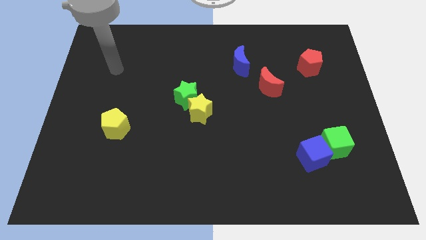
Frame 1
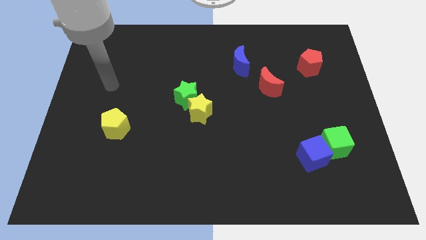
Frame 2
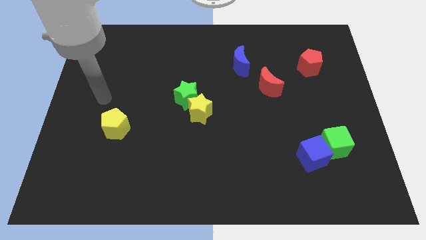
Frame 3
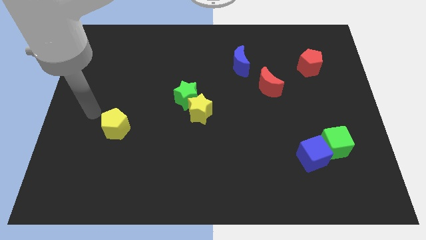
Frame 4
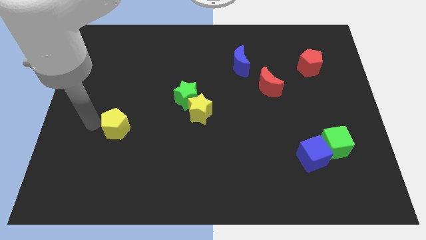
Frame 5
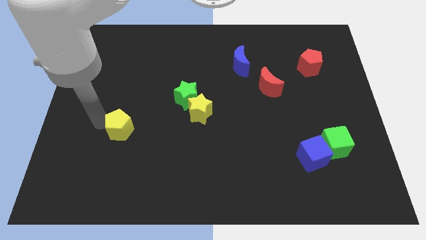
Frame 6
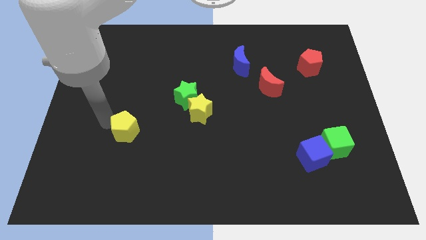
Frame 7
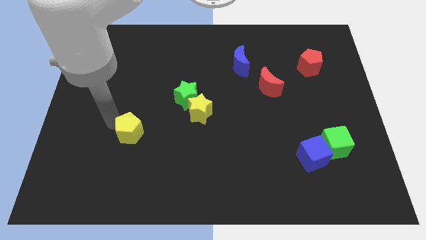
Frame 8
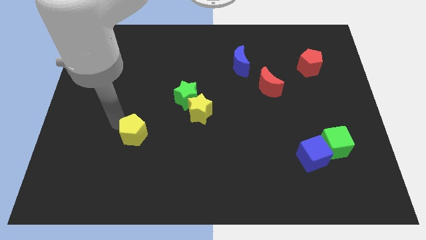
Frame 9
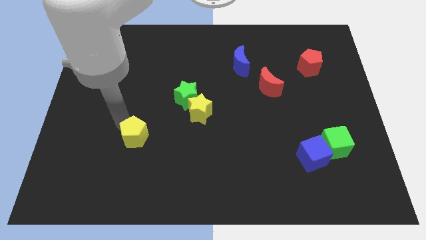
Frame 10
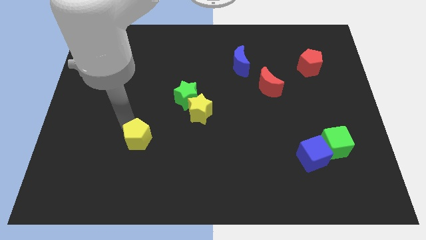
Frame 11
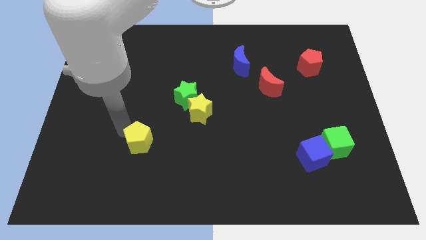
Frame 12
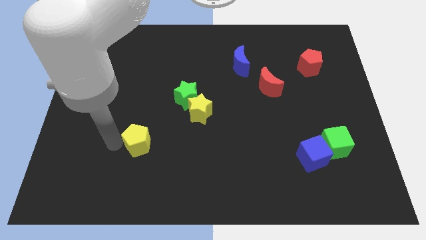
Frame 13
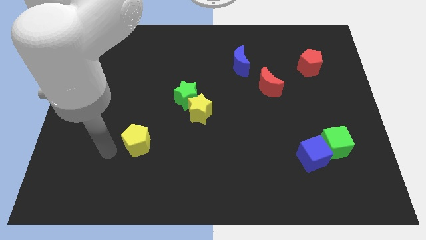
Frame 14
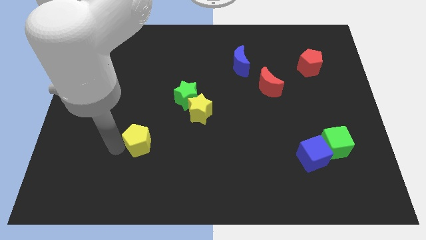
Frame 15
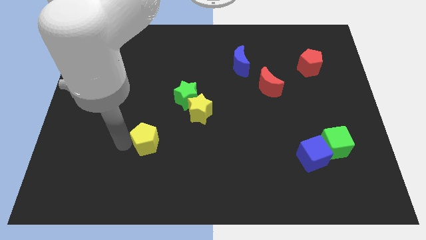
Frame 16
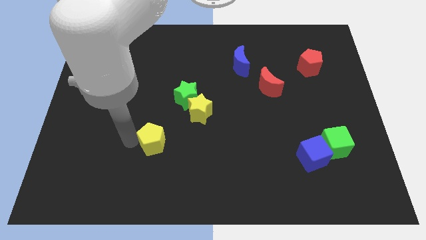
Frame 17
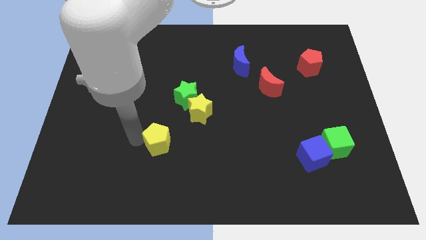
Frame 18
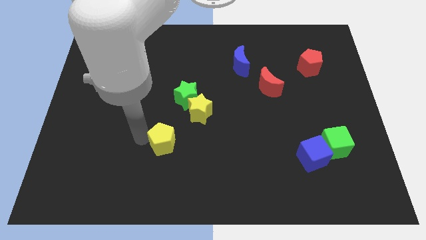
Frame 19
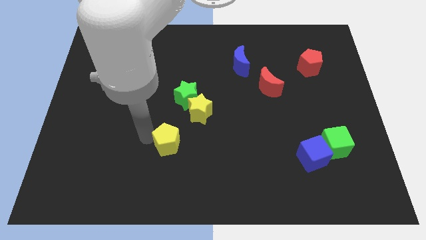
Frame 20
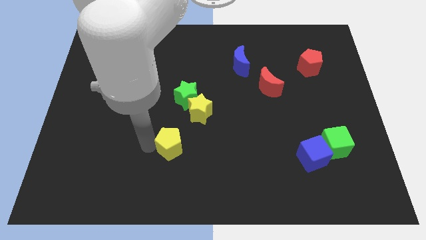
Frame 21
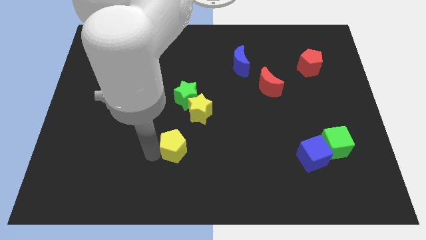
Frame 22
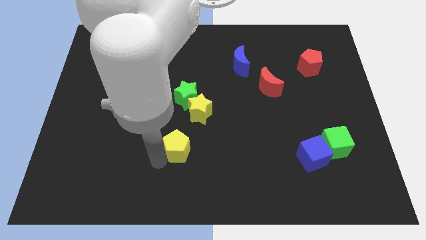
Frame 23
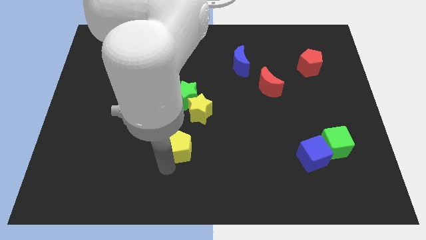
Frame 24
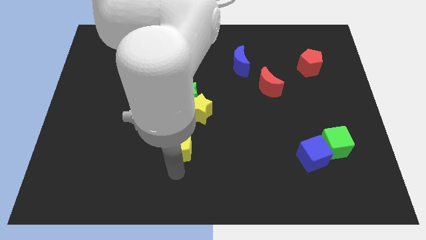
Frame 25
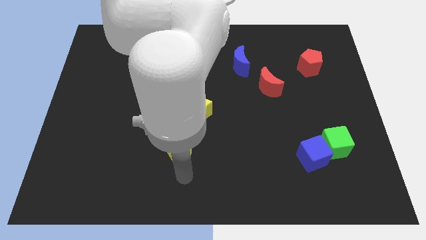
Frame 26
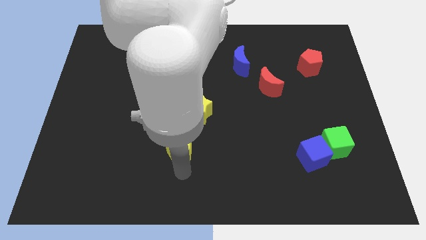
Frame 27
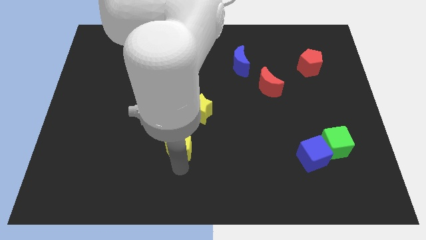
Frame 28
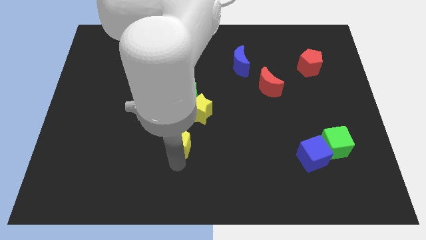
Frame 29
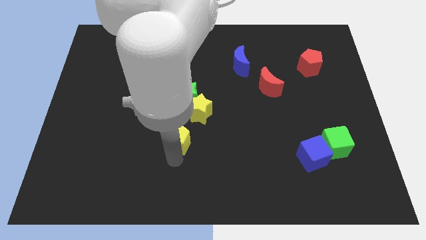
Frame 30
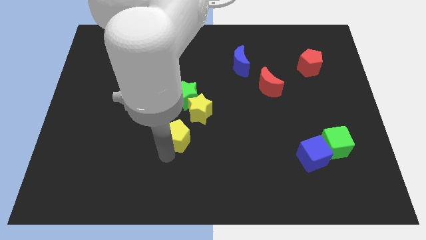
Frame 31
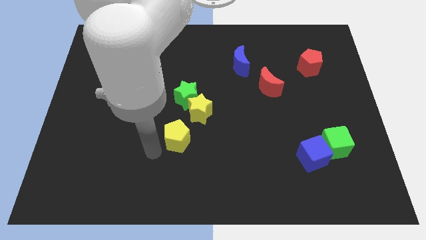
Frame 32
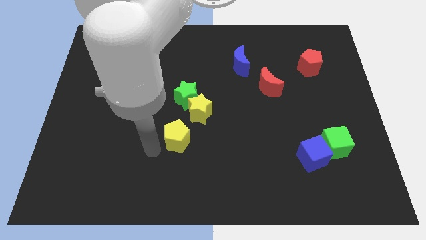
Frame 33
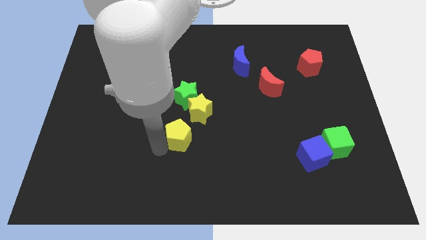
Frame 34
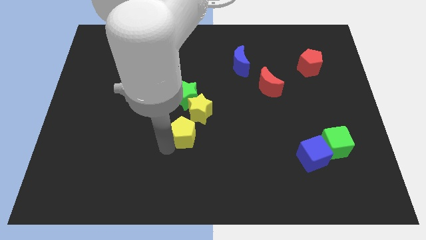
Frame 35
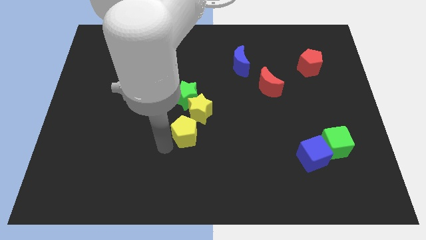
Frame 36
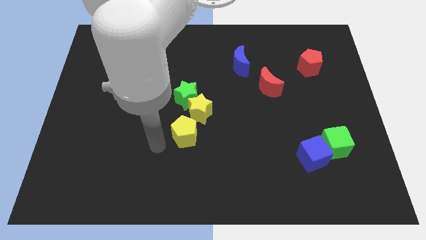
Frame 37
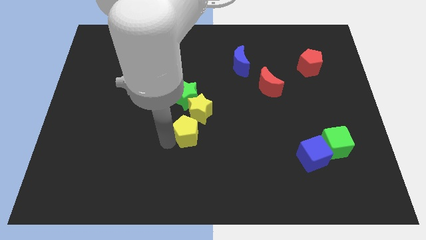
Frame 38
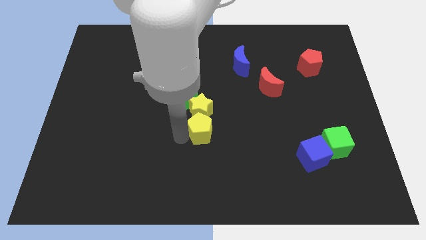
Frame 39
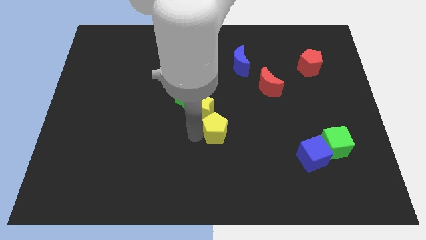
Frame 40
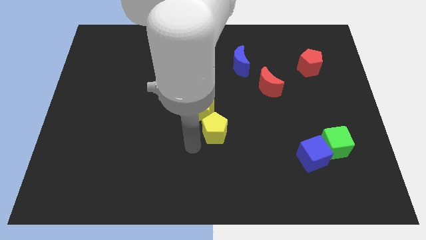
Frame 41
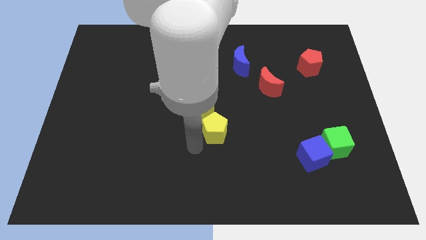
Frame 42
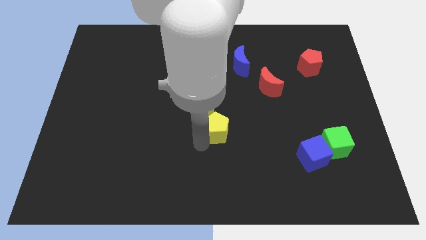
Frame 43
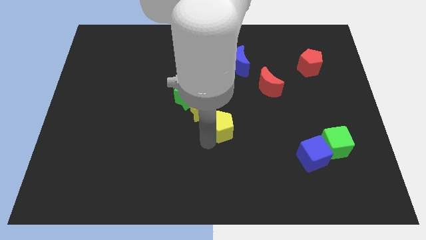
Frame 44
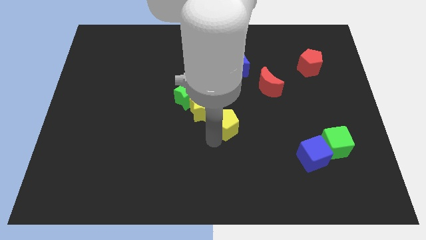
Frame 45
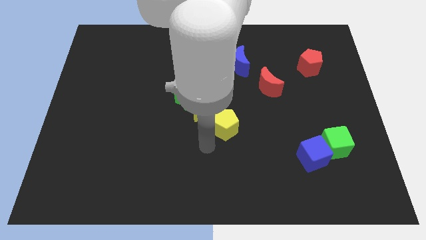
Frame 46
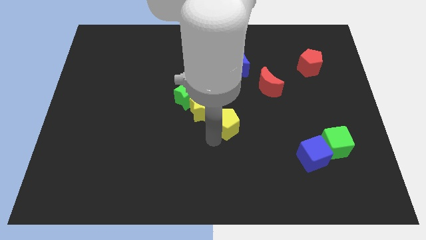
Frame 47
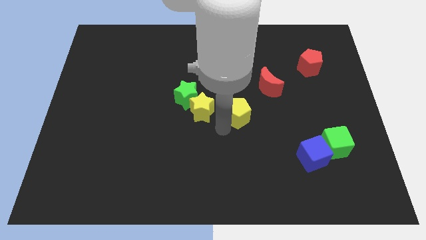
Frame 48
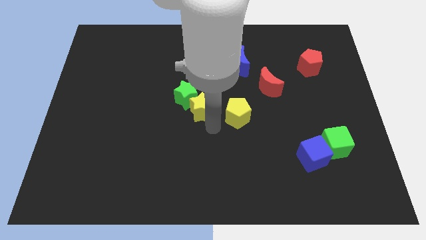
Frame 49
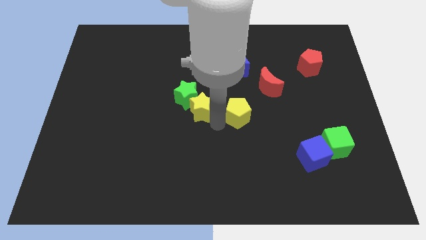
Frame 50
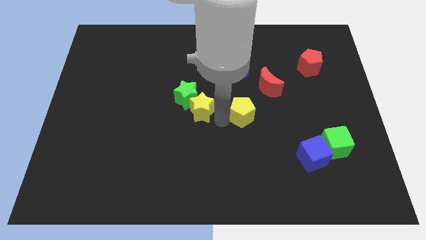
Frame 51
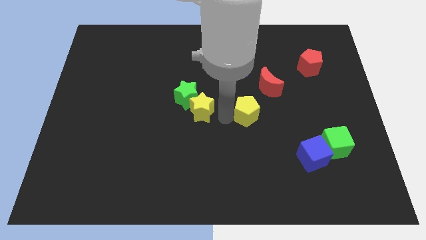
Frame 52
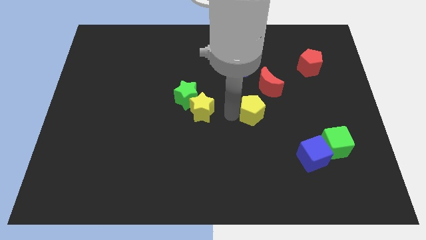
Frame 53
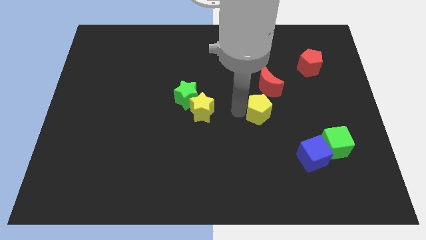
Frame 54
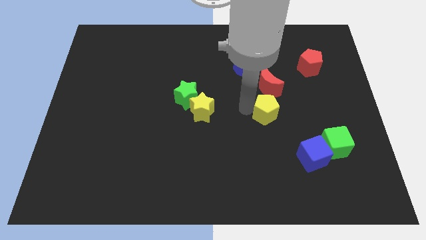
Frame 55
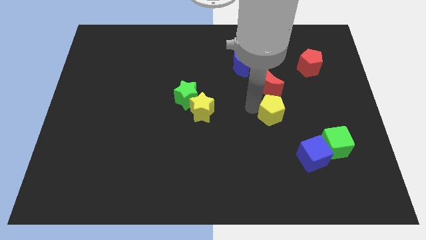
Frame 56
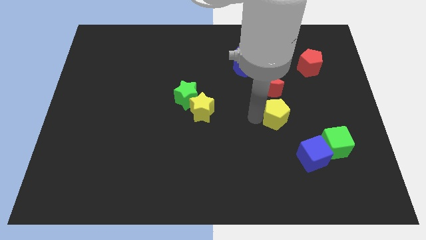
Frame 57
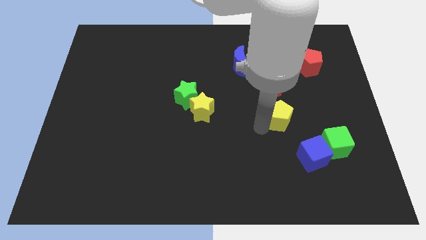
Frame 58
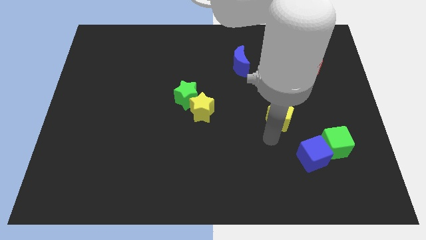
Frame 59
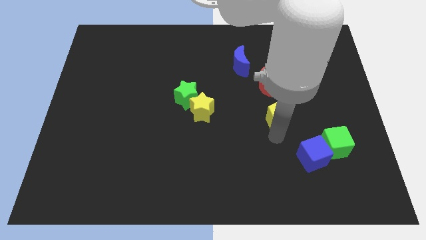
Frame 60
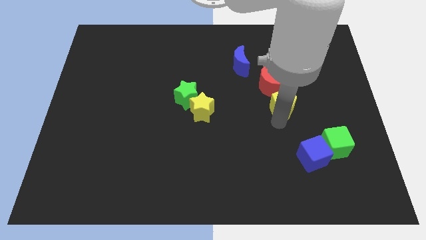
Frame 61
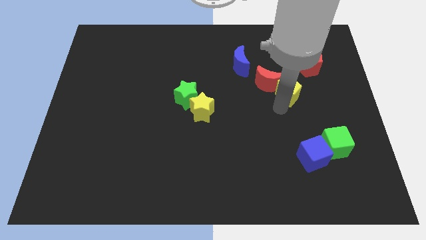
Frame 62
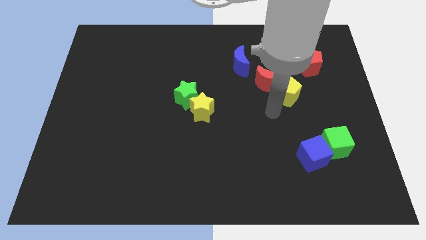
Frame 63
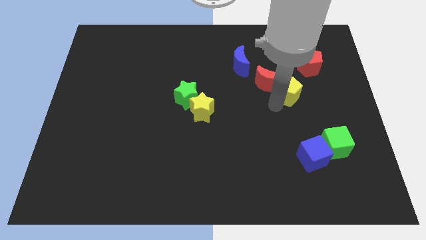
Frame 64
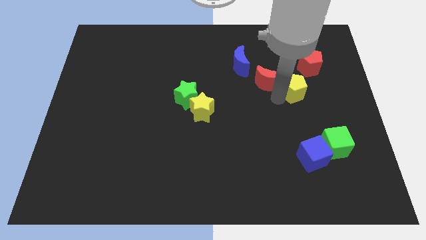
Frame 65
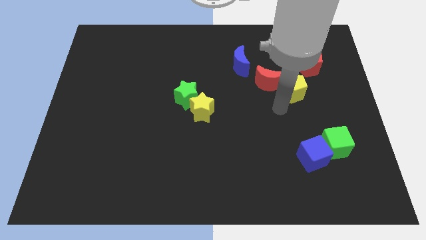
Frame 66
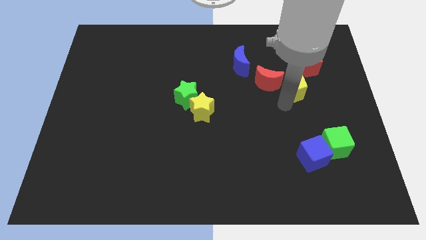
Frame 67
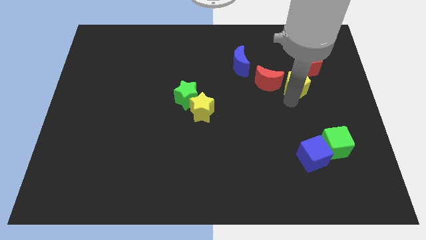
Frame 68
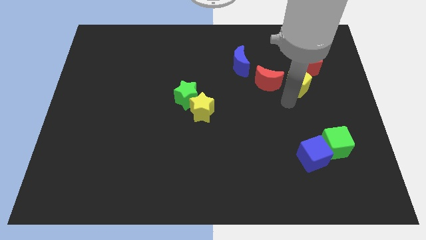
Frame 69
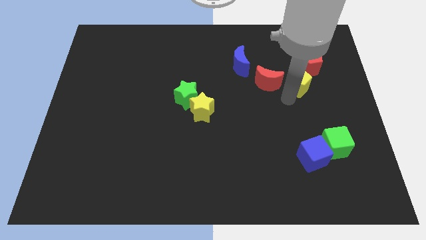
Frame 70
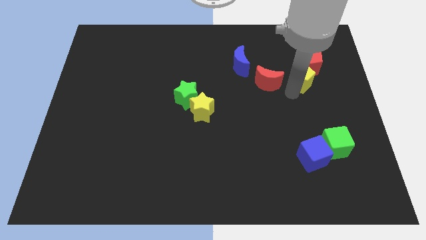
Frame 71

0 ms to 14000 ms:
put the yellow pentagon to the red pentagon
